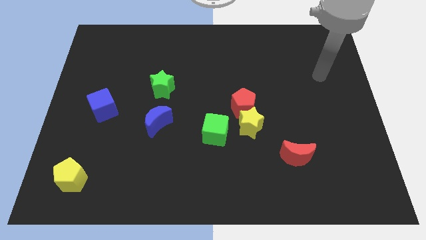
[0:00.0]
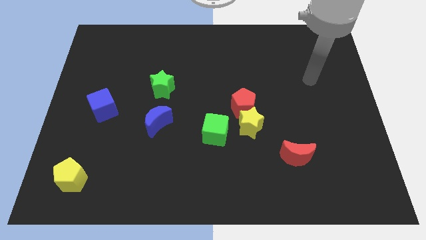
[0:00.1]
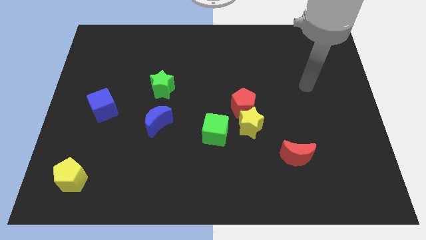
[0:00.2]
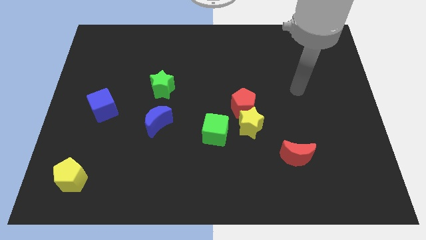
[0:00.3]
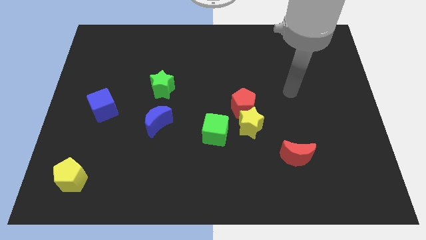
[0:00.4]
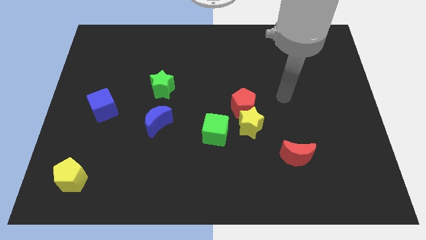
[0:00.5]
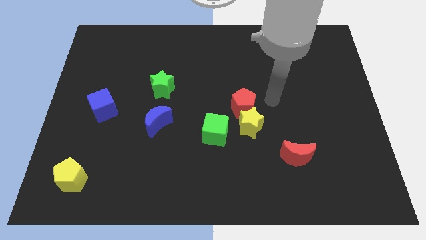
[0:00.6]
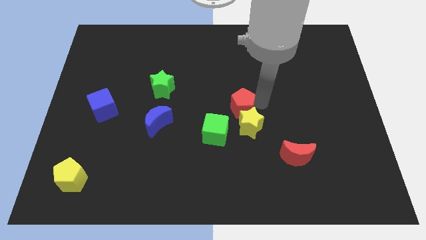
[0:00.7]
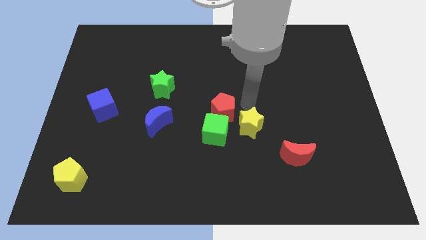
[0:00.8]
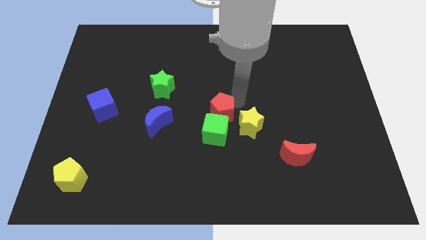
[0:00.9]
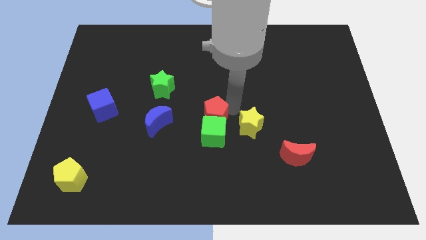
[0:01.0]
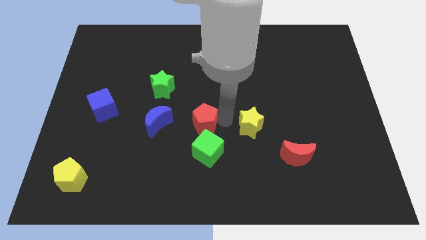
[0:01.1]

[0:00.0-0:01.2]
pull the yellow star apart from the red pentagon and green cube

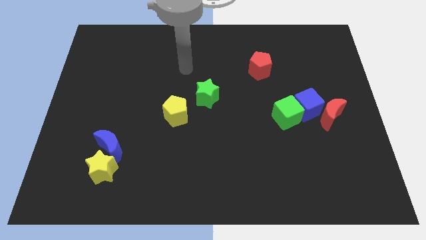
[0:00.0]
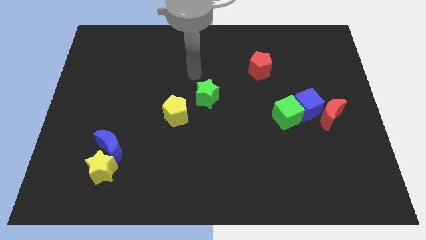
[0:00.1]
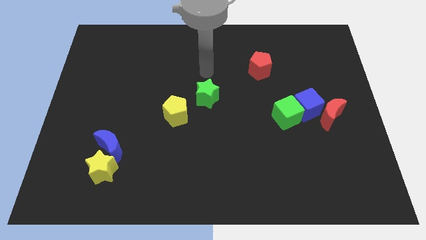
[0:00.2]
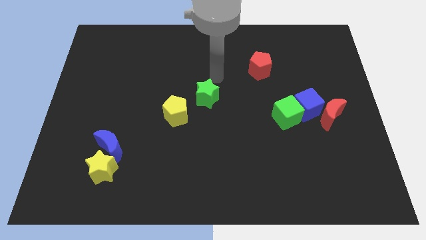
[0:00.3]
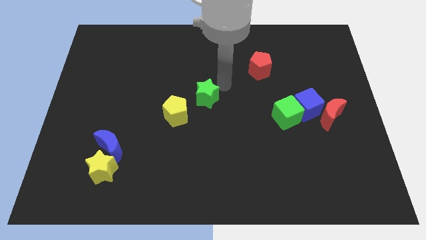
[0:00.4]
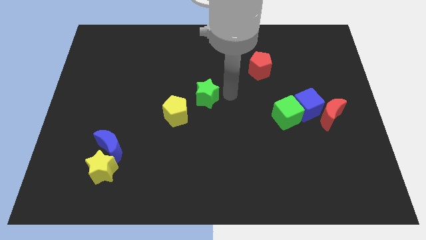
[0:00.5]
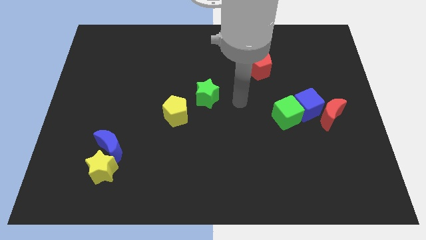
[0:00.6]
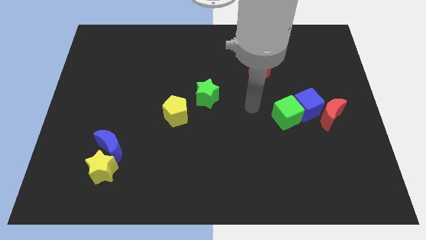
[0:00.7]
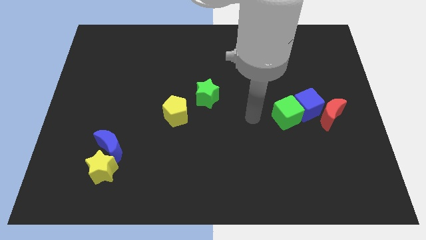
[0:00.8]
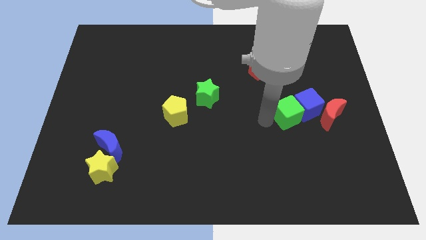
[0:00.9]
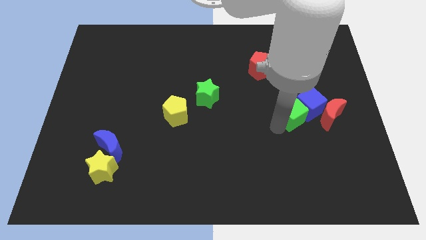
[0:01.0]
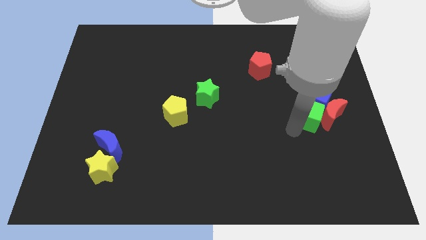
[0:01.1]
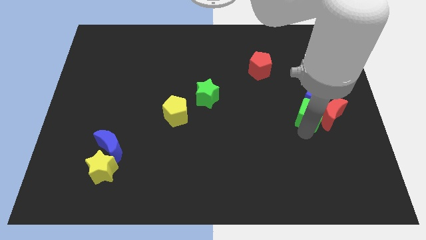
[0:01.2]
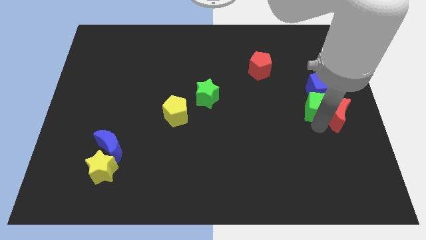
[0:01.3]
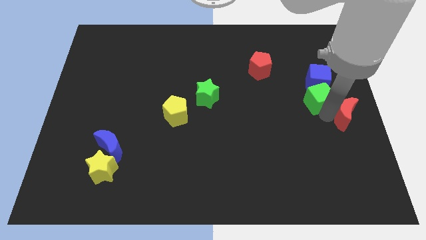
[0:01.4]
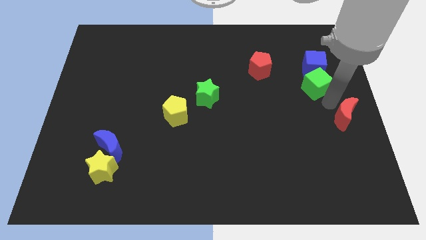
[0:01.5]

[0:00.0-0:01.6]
move the blue cube away from the green cube and red moon

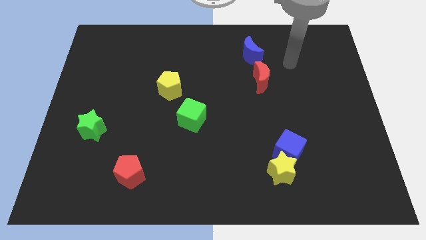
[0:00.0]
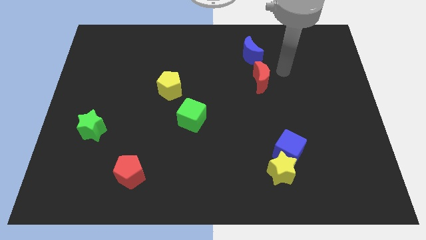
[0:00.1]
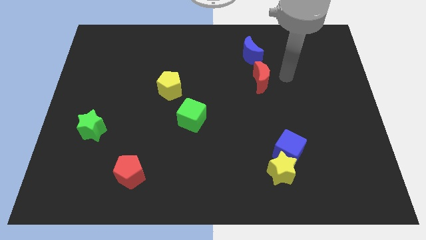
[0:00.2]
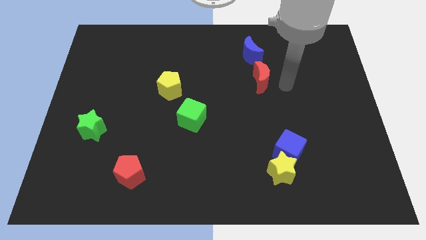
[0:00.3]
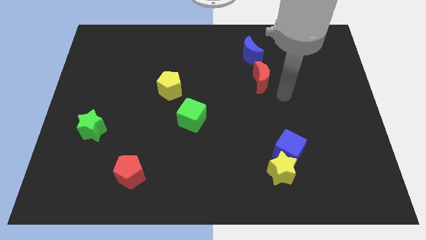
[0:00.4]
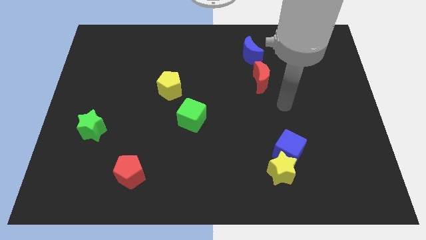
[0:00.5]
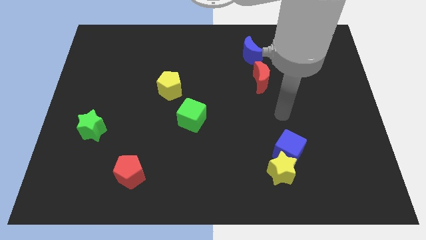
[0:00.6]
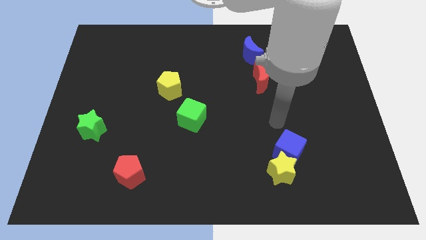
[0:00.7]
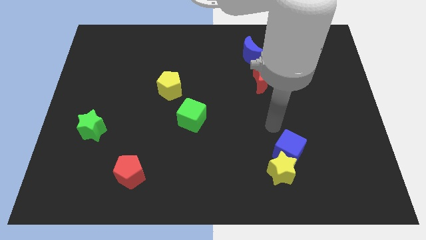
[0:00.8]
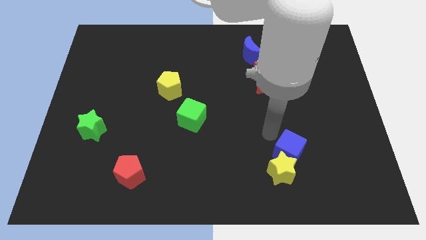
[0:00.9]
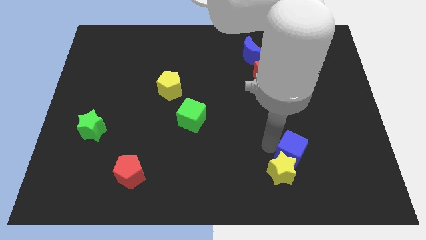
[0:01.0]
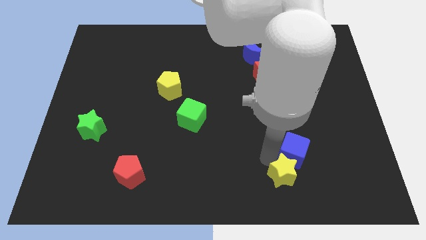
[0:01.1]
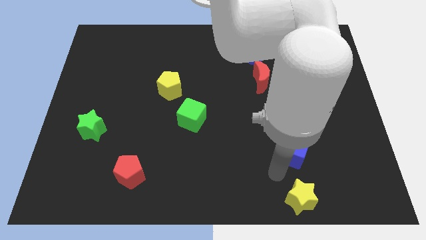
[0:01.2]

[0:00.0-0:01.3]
separate the blue cube from the yellow star

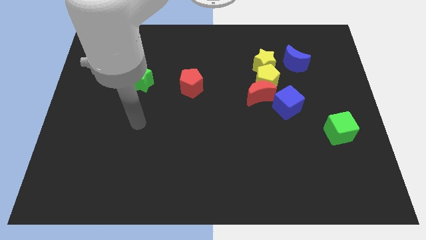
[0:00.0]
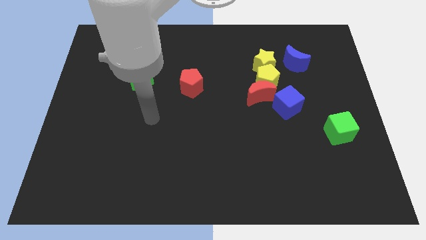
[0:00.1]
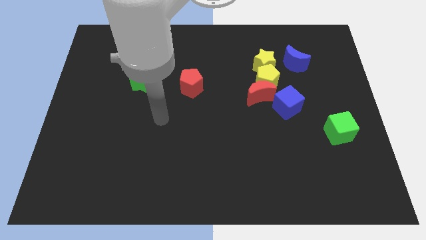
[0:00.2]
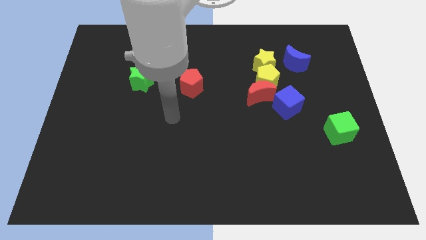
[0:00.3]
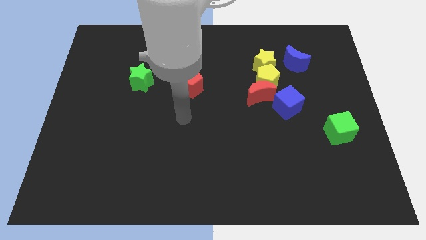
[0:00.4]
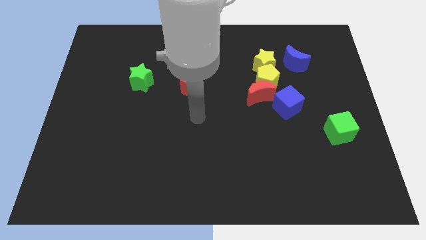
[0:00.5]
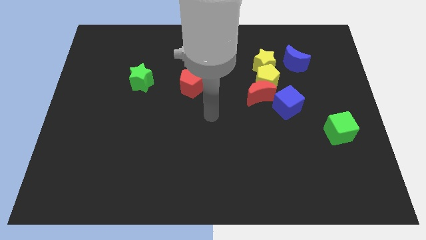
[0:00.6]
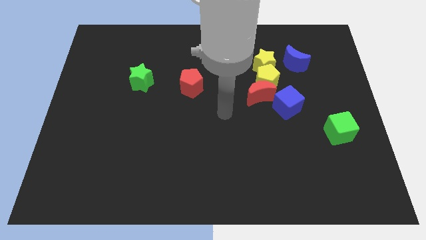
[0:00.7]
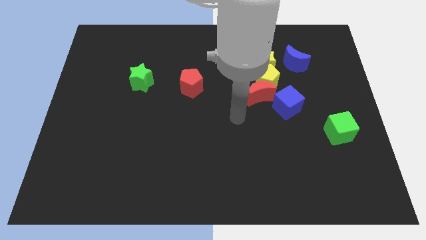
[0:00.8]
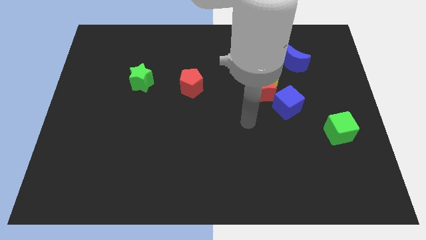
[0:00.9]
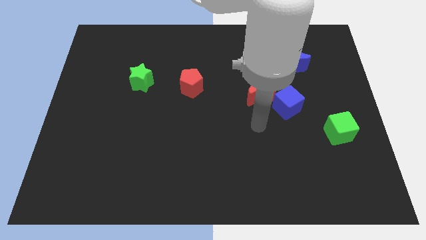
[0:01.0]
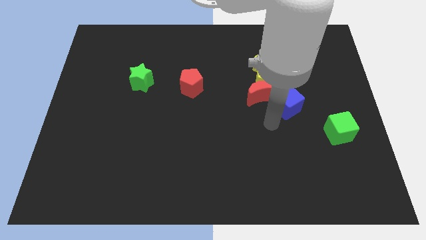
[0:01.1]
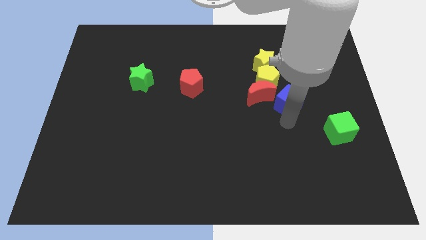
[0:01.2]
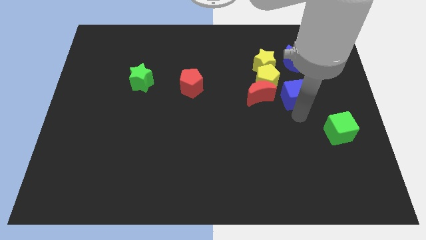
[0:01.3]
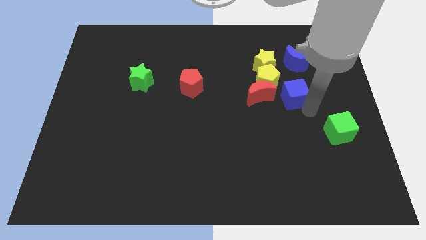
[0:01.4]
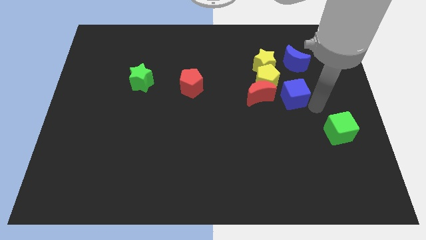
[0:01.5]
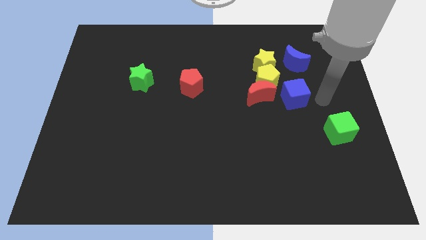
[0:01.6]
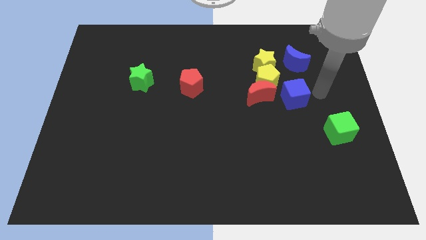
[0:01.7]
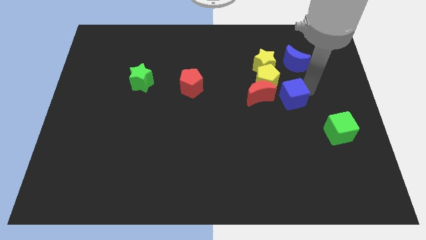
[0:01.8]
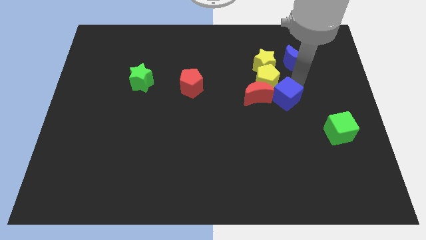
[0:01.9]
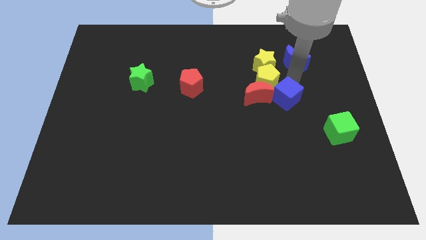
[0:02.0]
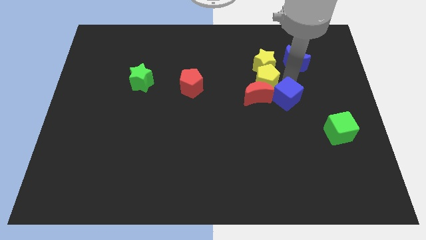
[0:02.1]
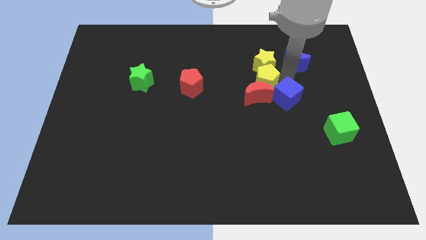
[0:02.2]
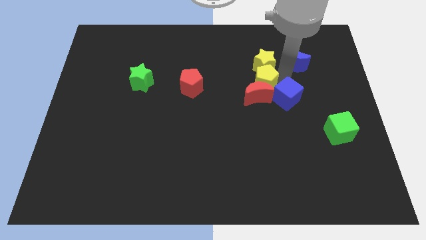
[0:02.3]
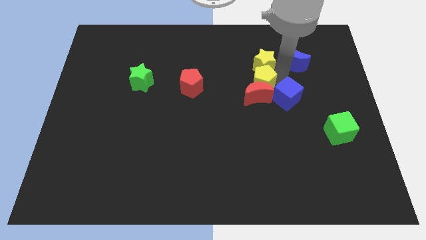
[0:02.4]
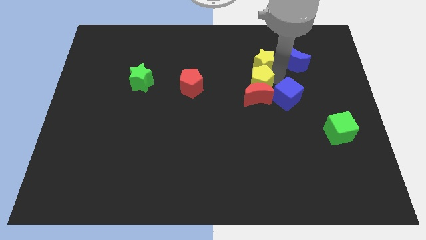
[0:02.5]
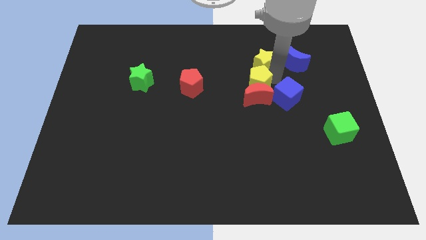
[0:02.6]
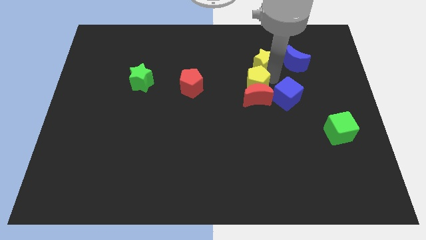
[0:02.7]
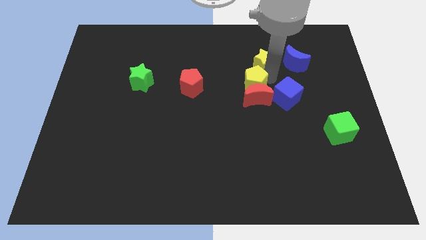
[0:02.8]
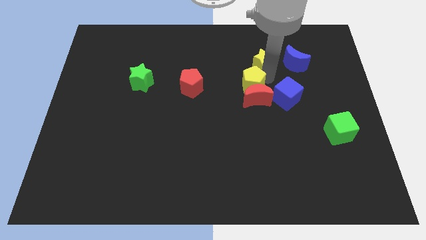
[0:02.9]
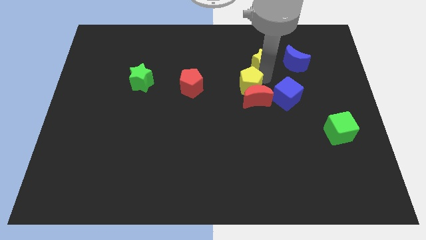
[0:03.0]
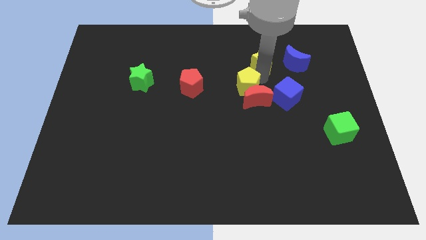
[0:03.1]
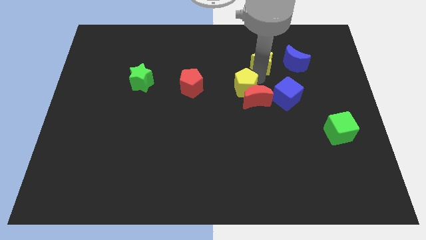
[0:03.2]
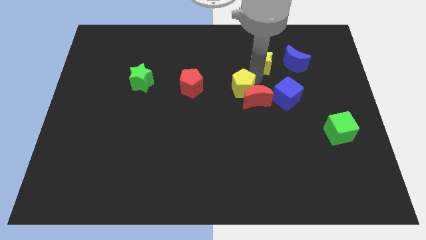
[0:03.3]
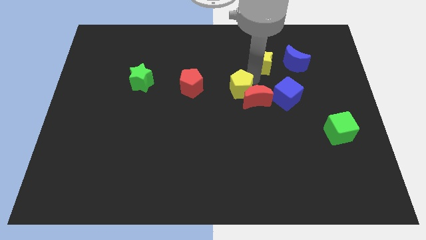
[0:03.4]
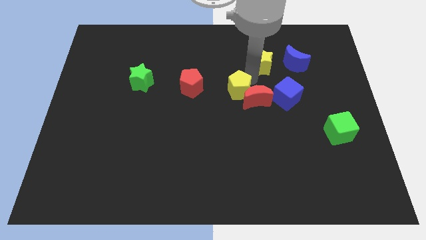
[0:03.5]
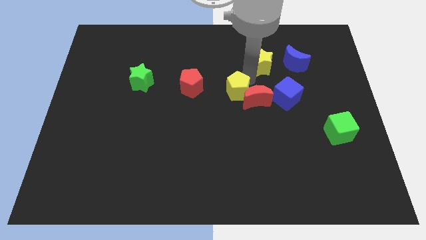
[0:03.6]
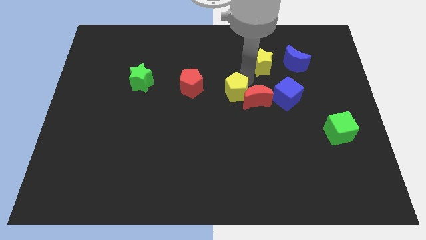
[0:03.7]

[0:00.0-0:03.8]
separate the yellow pentagon from the clump

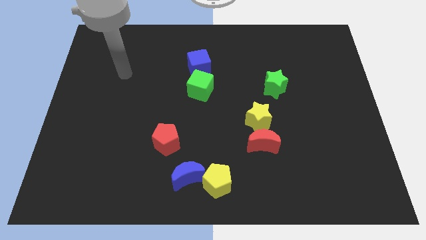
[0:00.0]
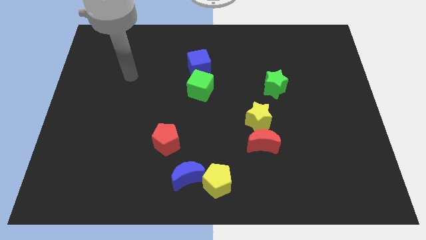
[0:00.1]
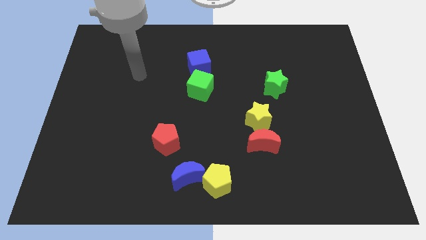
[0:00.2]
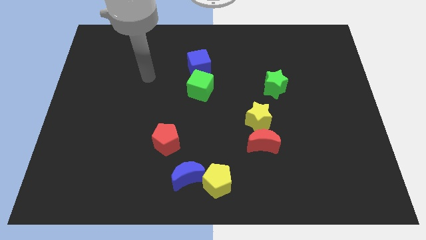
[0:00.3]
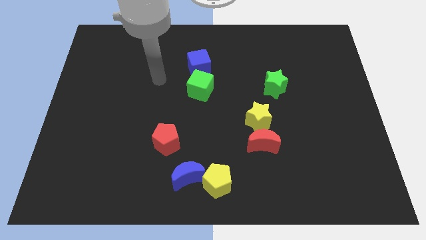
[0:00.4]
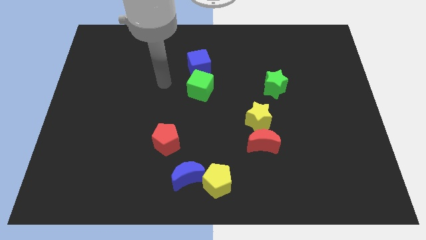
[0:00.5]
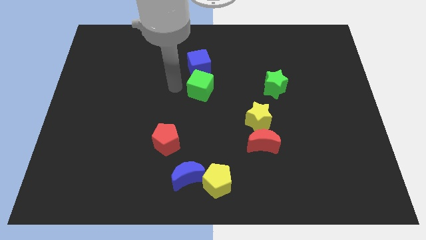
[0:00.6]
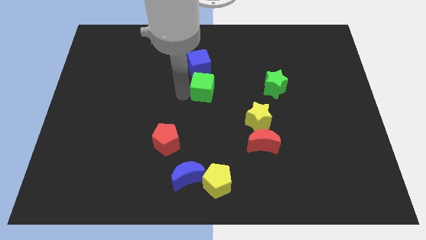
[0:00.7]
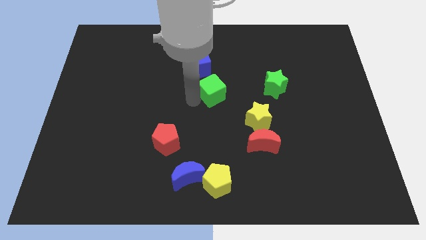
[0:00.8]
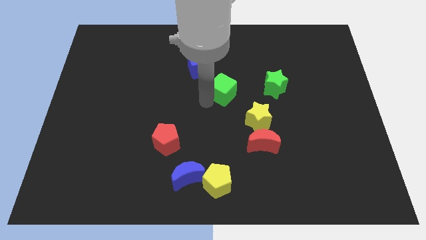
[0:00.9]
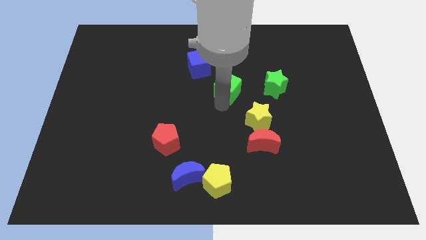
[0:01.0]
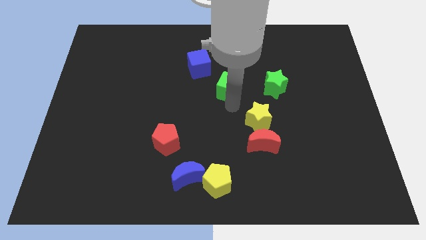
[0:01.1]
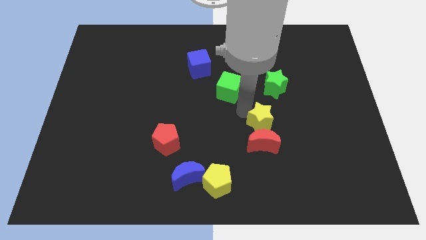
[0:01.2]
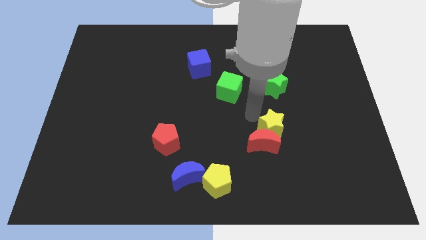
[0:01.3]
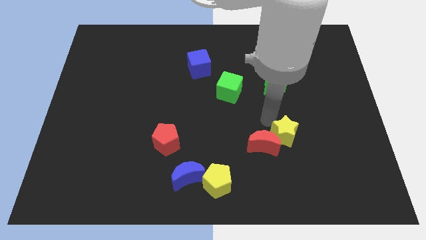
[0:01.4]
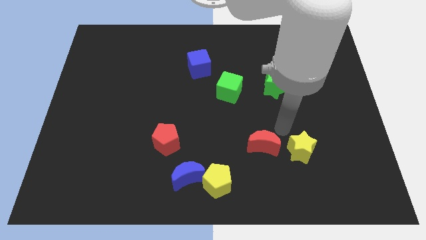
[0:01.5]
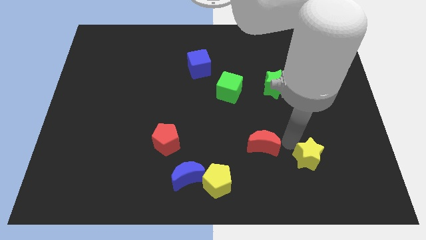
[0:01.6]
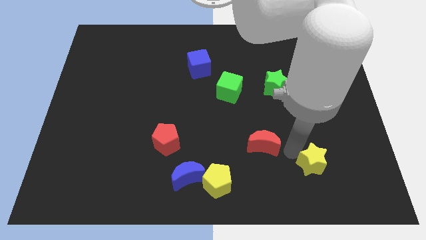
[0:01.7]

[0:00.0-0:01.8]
pull the red moon apart from the yellow star
